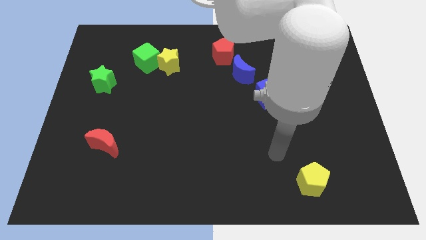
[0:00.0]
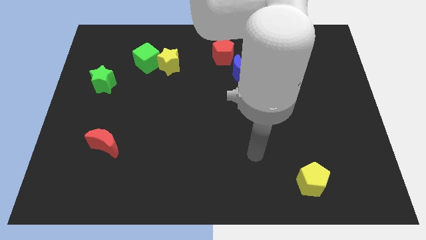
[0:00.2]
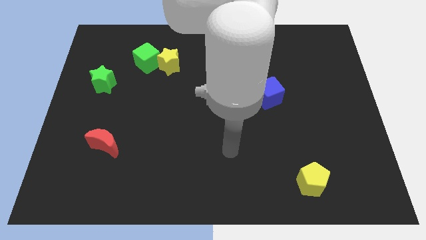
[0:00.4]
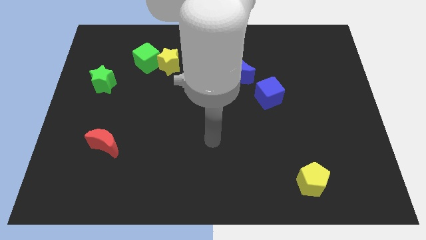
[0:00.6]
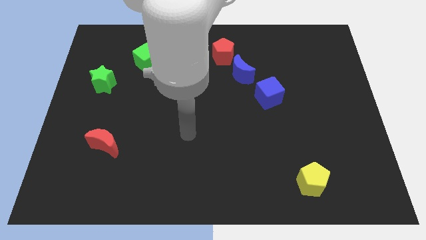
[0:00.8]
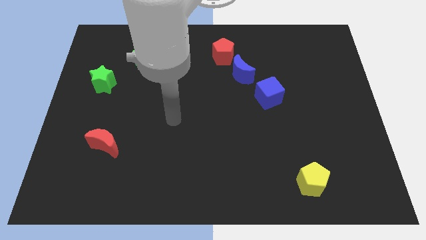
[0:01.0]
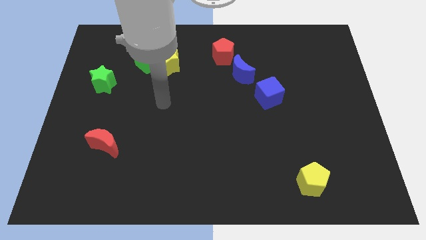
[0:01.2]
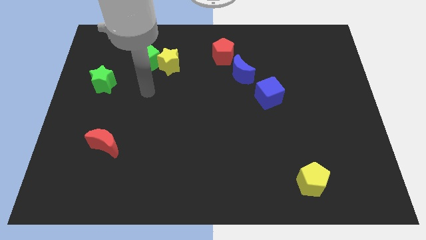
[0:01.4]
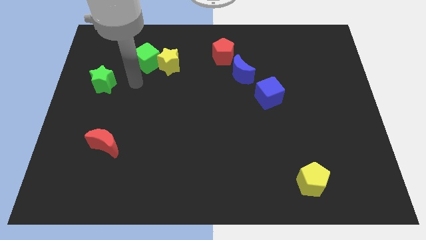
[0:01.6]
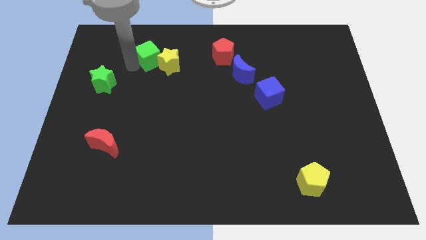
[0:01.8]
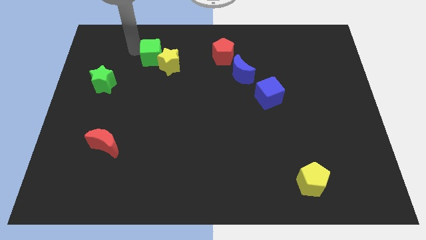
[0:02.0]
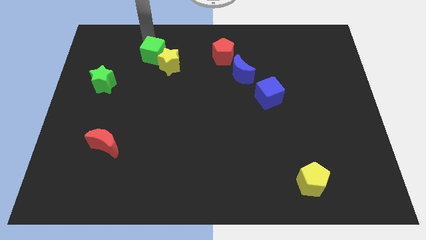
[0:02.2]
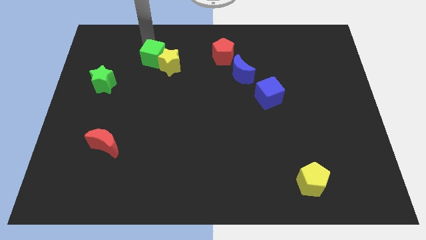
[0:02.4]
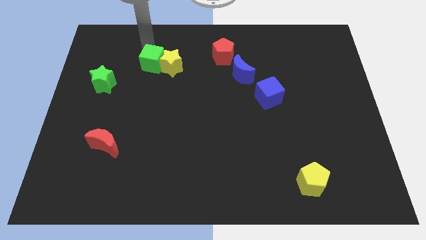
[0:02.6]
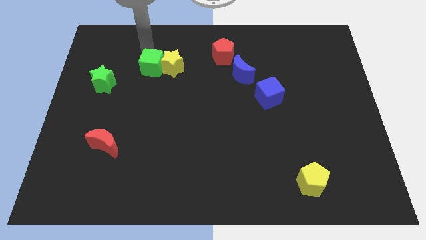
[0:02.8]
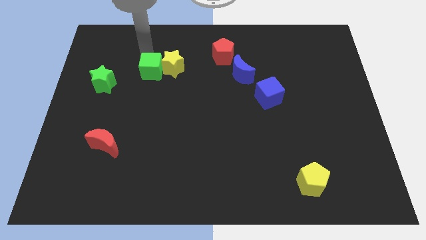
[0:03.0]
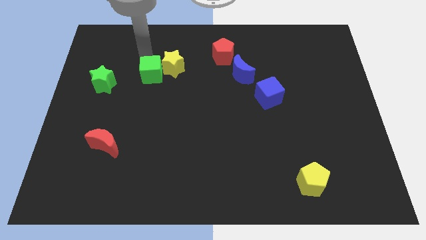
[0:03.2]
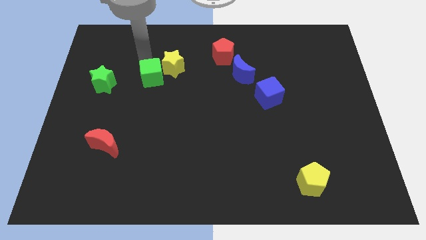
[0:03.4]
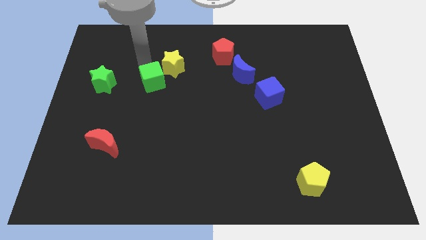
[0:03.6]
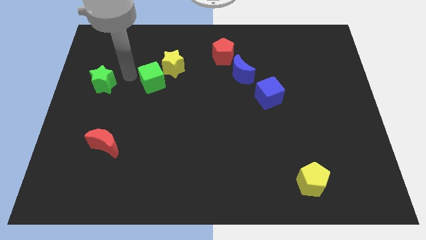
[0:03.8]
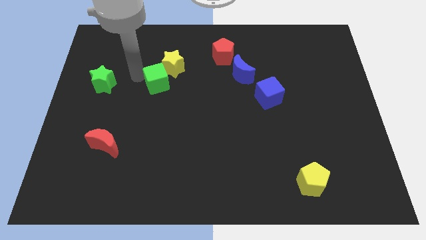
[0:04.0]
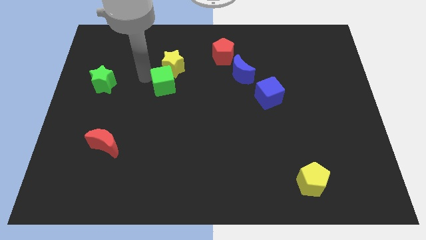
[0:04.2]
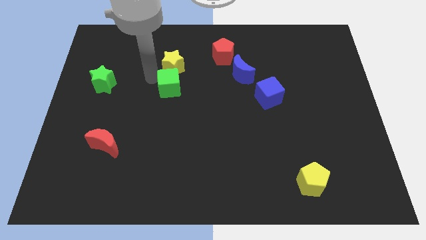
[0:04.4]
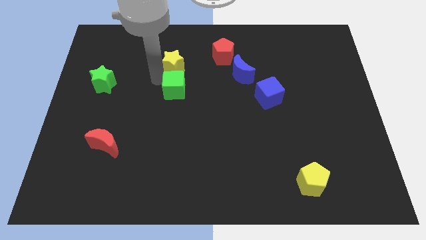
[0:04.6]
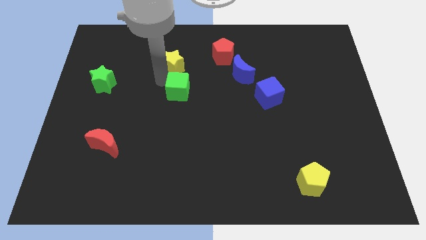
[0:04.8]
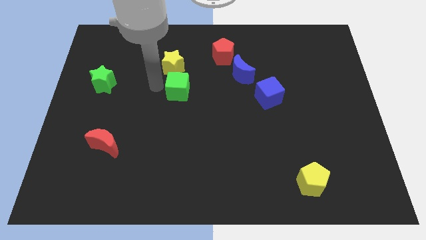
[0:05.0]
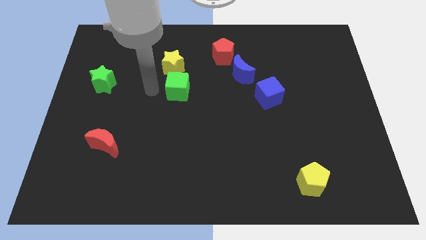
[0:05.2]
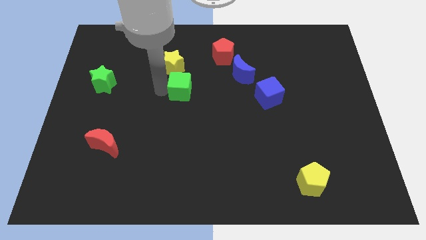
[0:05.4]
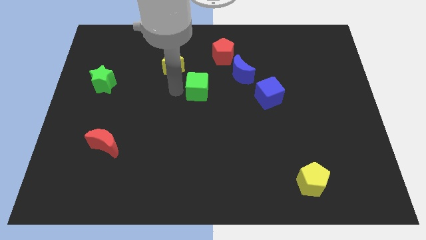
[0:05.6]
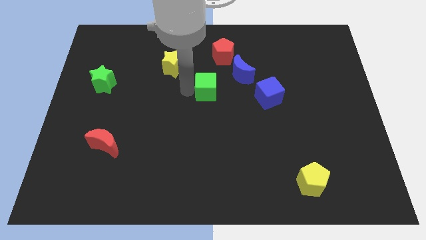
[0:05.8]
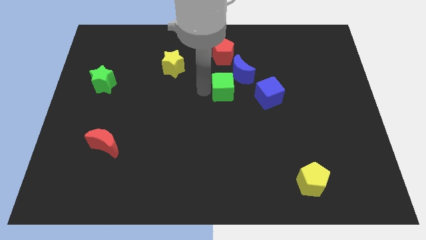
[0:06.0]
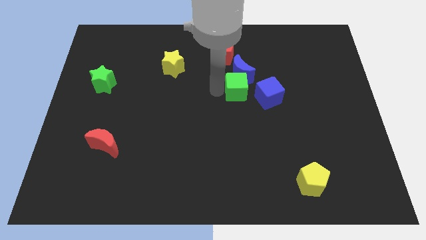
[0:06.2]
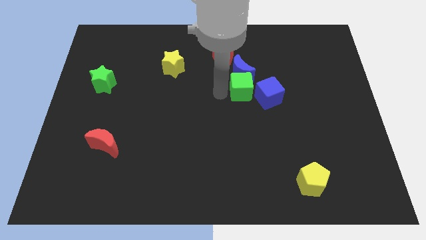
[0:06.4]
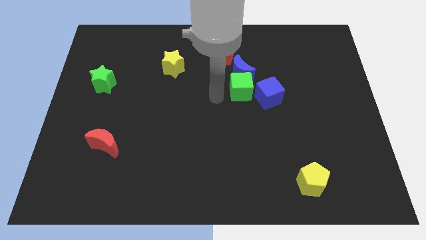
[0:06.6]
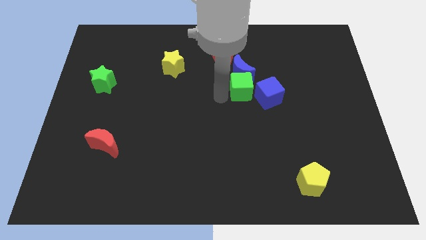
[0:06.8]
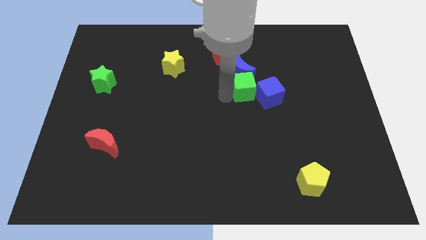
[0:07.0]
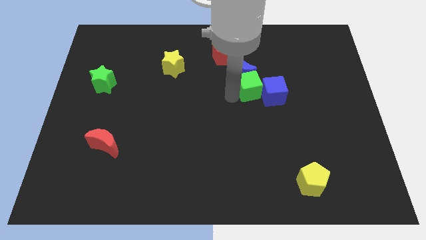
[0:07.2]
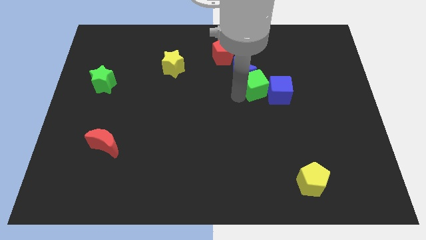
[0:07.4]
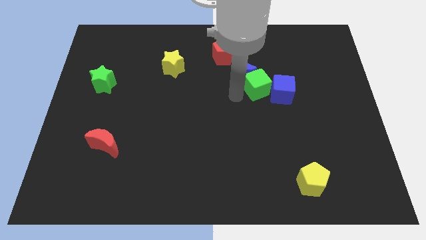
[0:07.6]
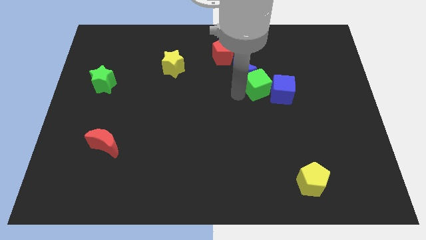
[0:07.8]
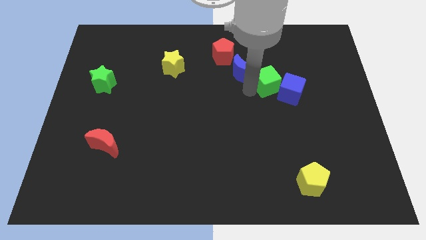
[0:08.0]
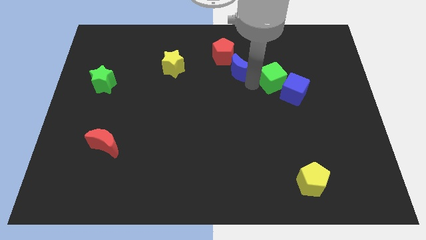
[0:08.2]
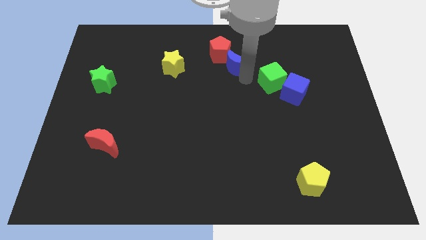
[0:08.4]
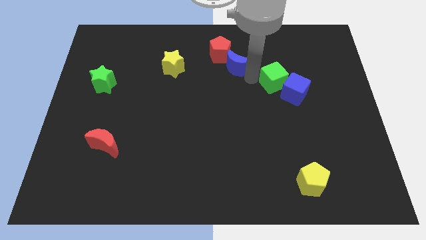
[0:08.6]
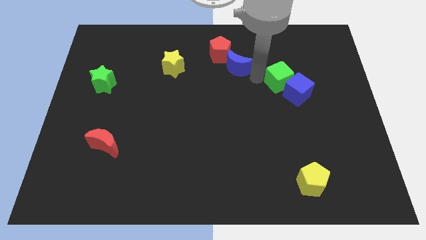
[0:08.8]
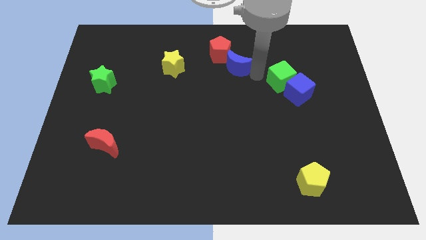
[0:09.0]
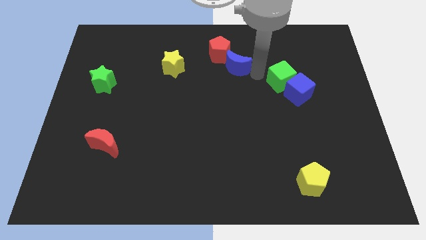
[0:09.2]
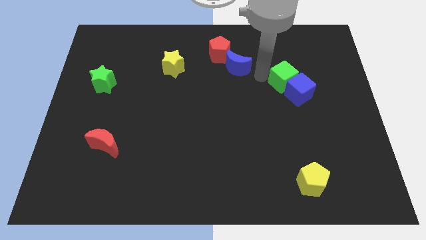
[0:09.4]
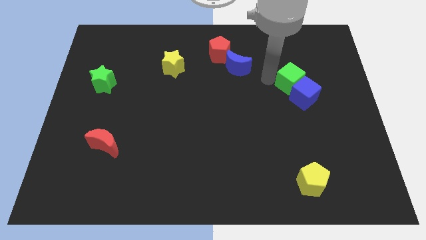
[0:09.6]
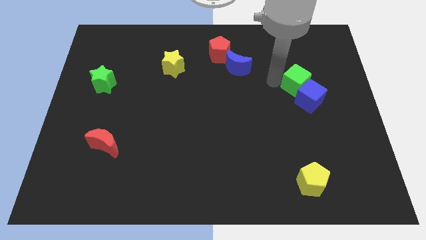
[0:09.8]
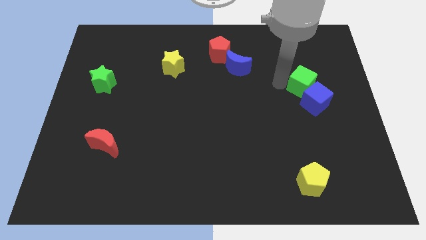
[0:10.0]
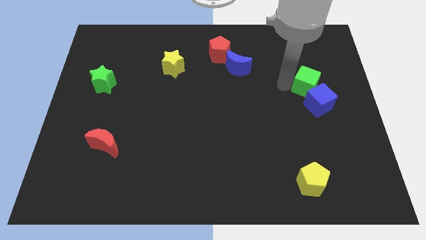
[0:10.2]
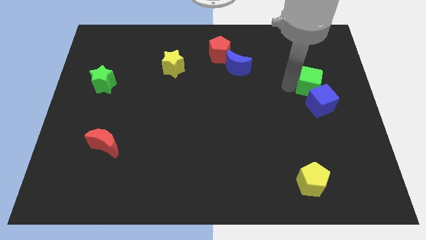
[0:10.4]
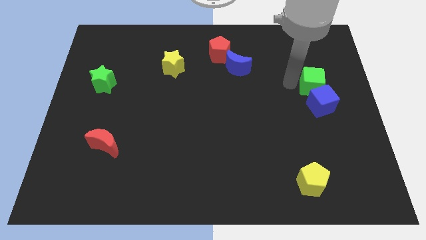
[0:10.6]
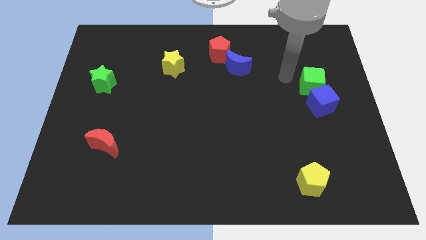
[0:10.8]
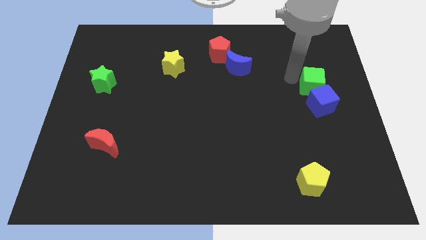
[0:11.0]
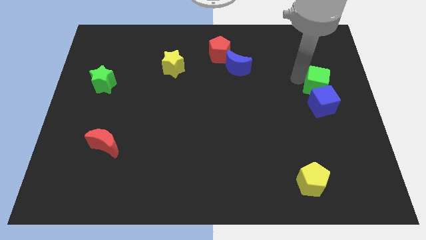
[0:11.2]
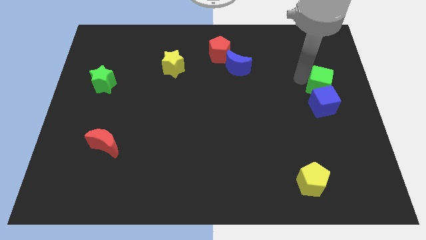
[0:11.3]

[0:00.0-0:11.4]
put the green cube to the right side of the board

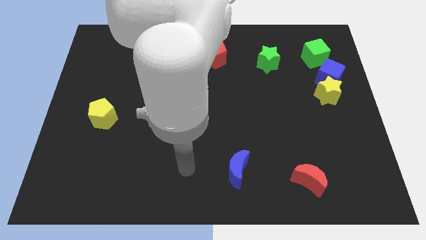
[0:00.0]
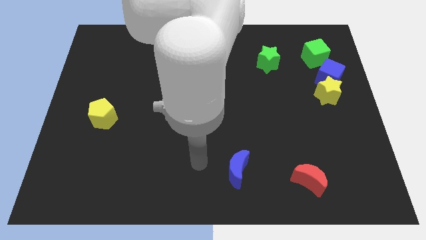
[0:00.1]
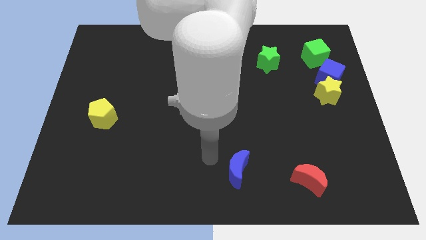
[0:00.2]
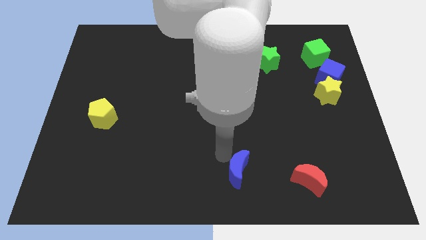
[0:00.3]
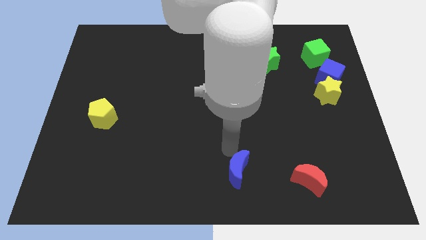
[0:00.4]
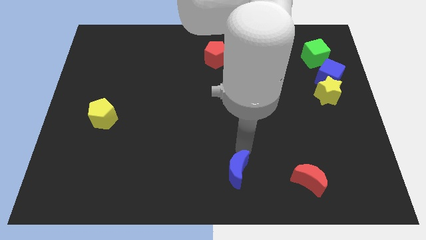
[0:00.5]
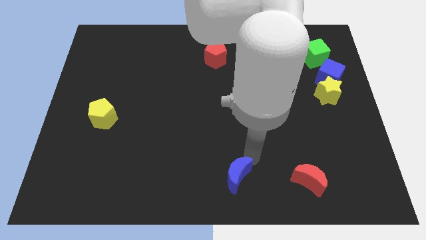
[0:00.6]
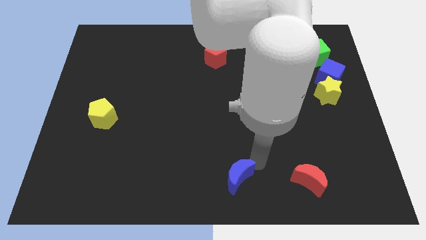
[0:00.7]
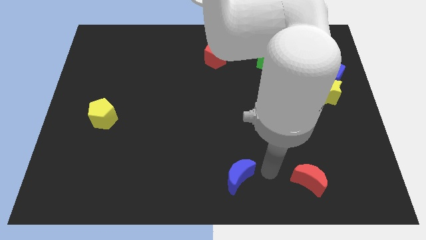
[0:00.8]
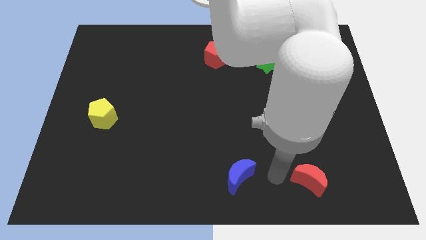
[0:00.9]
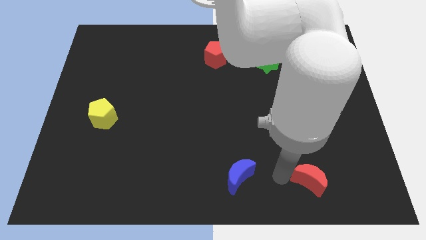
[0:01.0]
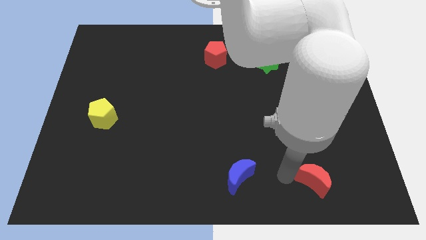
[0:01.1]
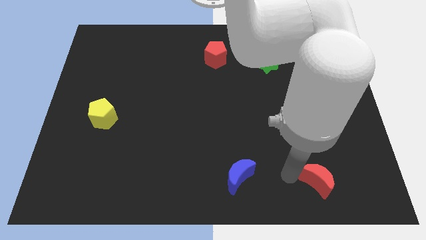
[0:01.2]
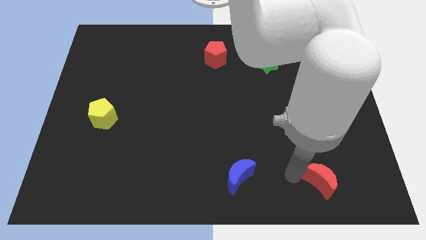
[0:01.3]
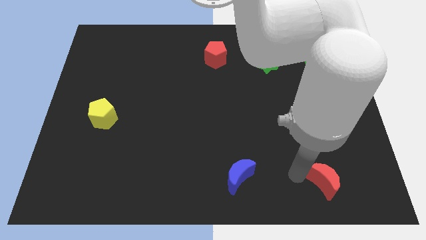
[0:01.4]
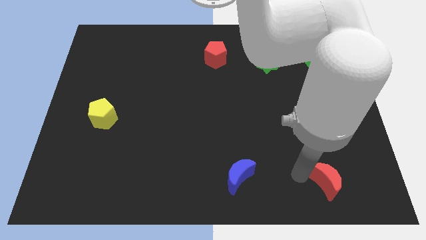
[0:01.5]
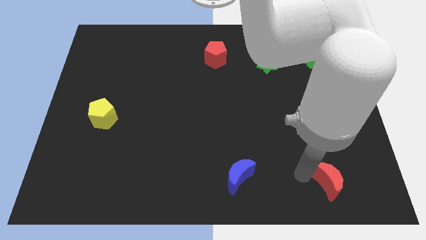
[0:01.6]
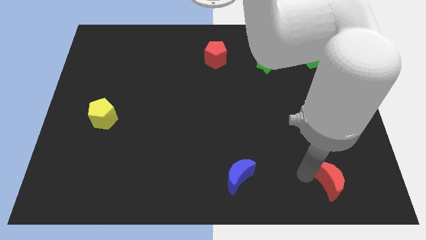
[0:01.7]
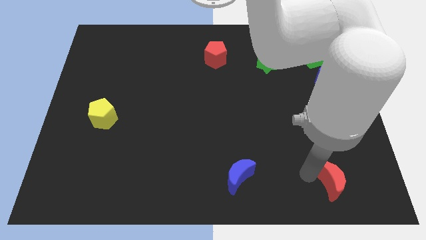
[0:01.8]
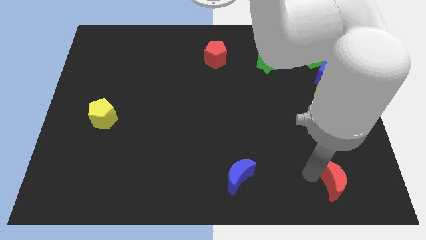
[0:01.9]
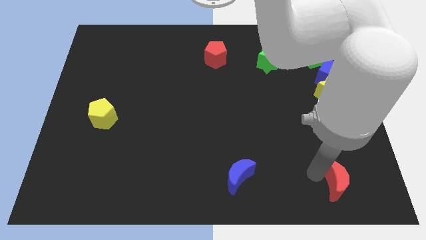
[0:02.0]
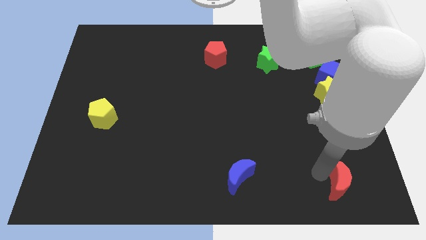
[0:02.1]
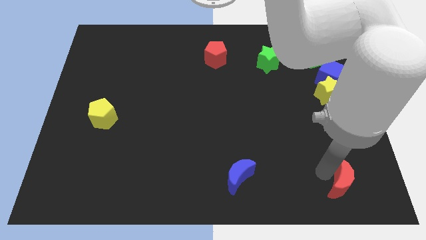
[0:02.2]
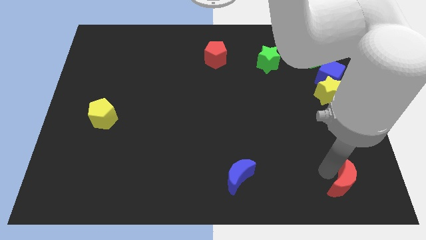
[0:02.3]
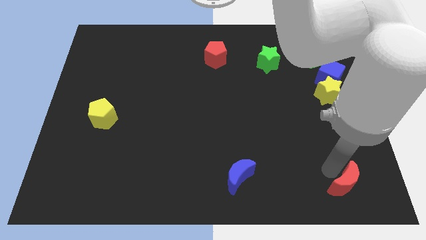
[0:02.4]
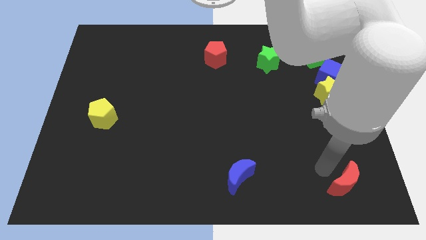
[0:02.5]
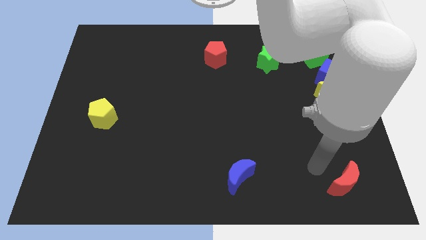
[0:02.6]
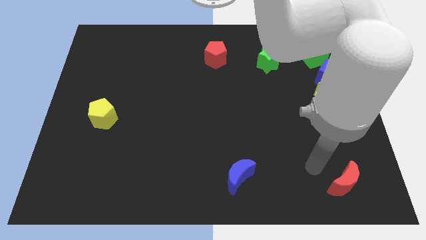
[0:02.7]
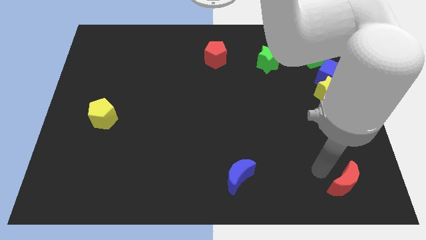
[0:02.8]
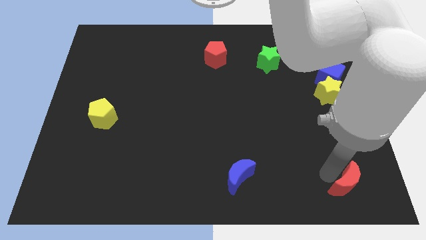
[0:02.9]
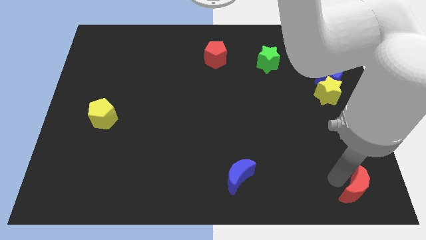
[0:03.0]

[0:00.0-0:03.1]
push the red moon to the bottom right of the board
